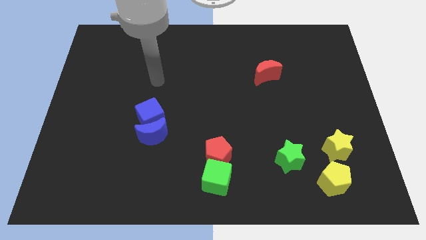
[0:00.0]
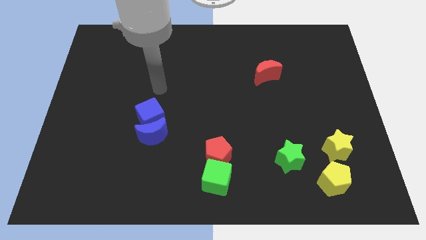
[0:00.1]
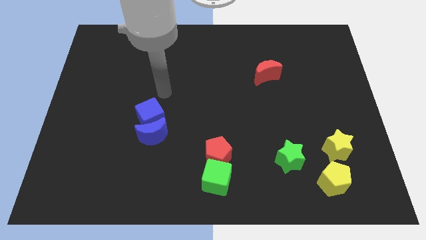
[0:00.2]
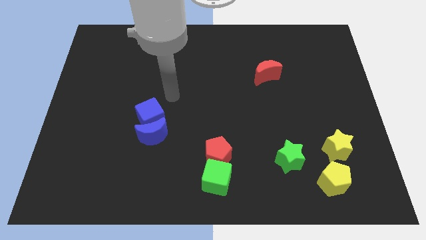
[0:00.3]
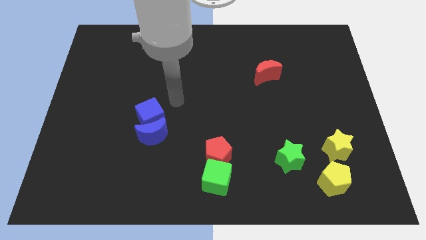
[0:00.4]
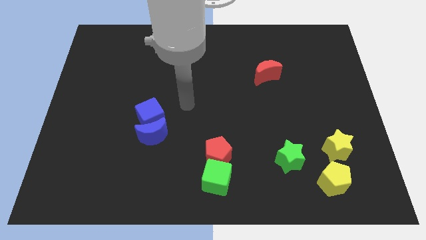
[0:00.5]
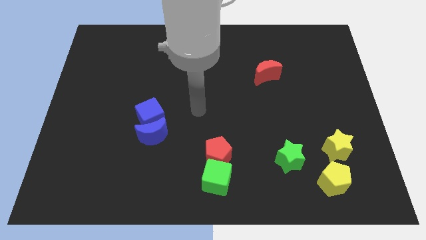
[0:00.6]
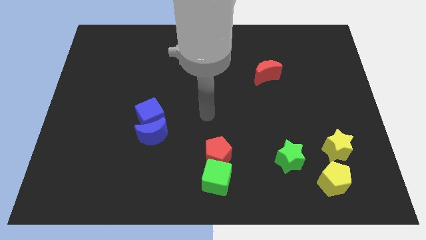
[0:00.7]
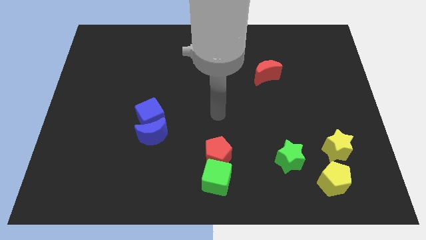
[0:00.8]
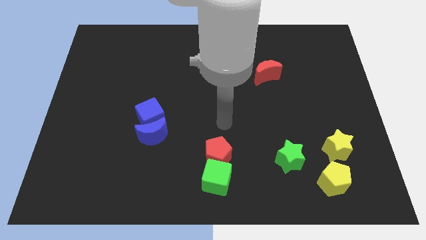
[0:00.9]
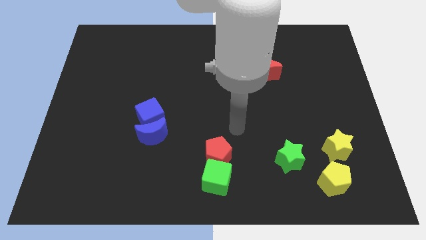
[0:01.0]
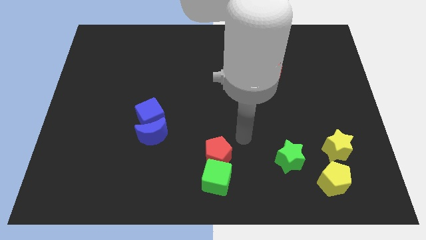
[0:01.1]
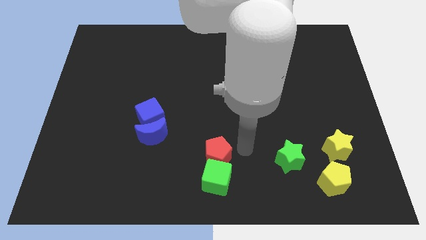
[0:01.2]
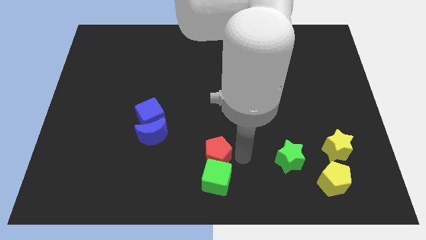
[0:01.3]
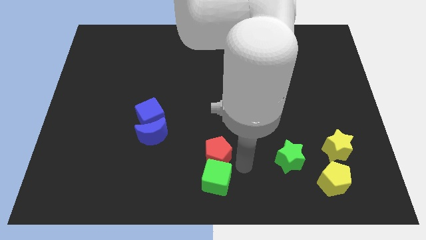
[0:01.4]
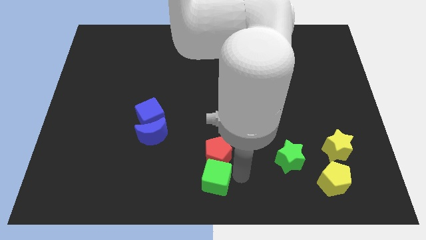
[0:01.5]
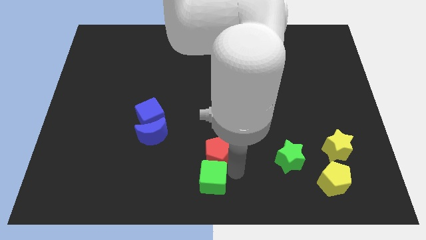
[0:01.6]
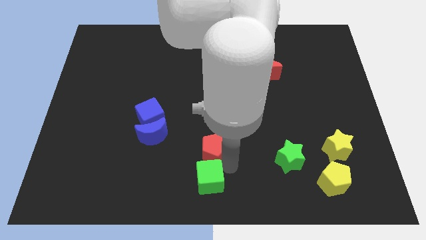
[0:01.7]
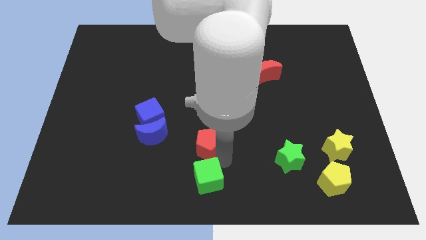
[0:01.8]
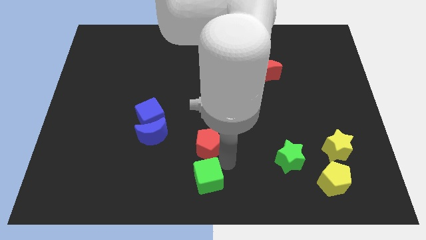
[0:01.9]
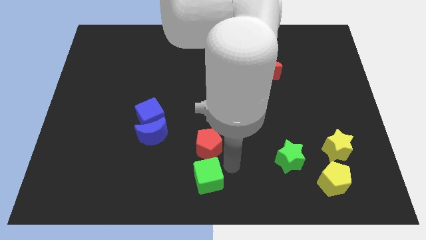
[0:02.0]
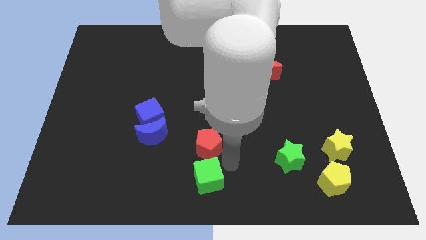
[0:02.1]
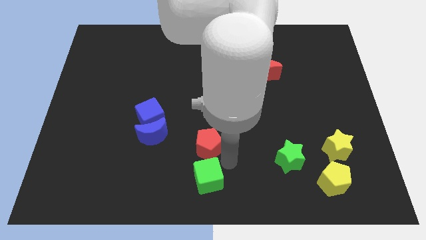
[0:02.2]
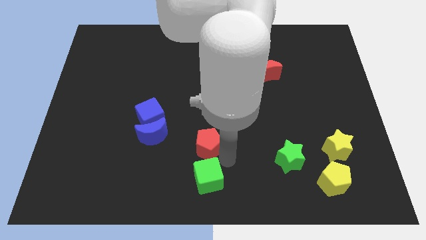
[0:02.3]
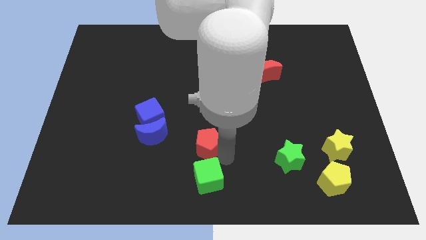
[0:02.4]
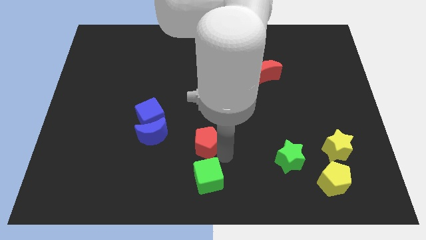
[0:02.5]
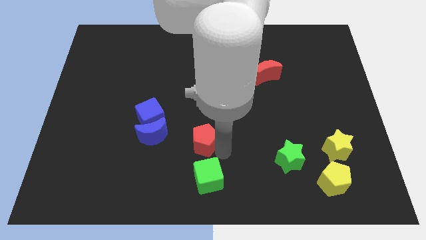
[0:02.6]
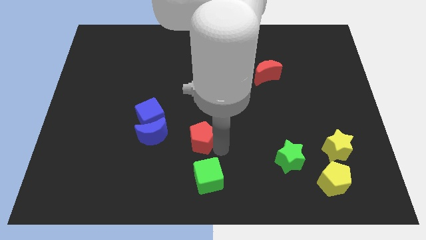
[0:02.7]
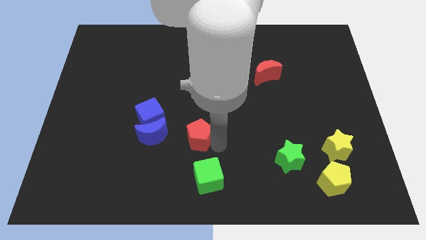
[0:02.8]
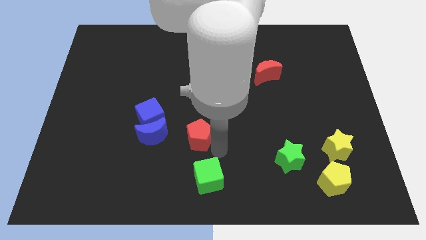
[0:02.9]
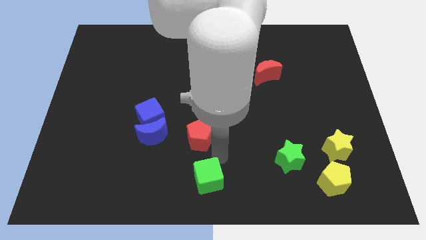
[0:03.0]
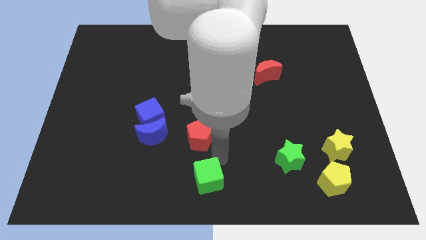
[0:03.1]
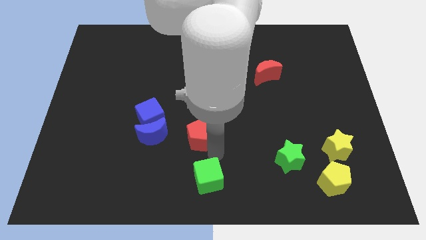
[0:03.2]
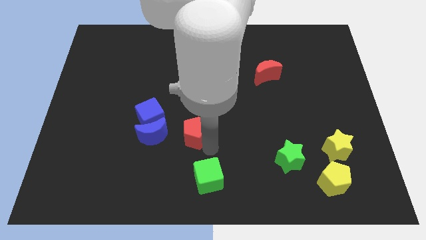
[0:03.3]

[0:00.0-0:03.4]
slightly push the red pentagon up and then to the left

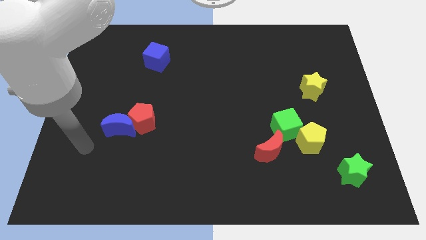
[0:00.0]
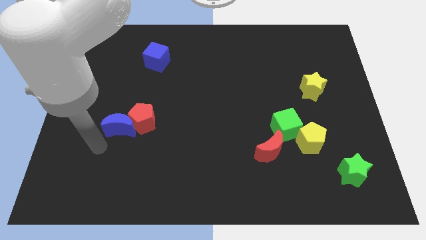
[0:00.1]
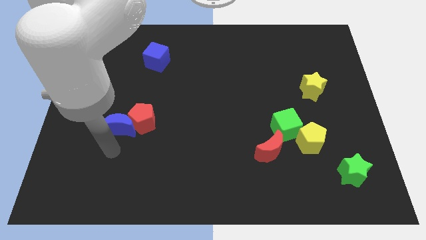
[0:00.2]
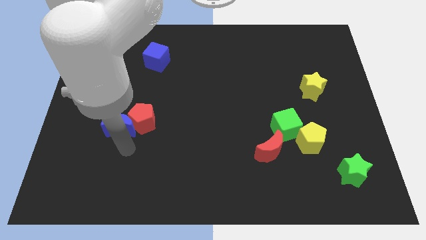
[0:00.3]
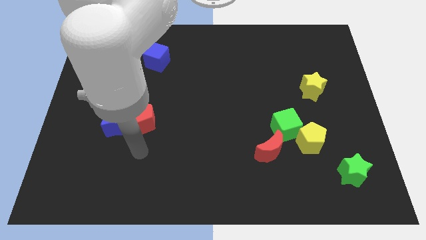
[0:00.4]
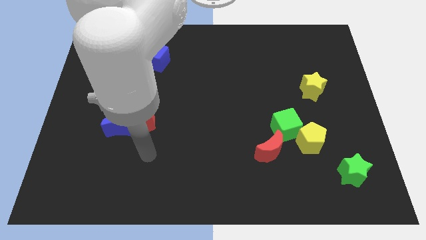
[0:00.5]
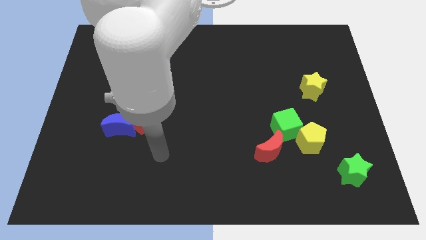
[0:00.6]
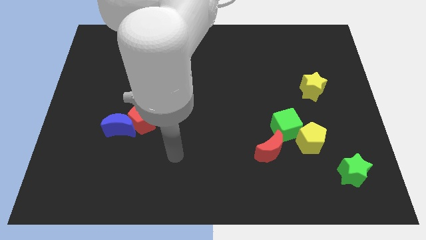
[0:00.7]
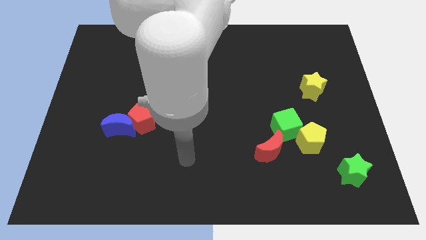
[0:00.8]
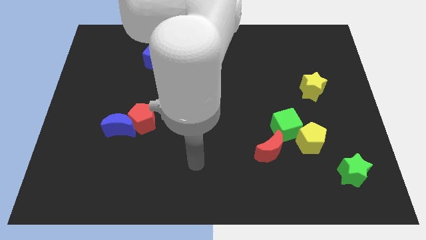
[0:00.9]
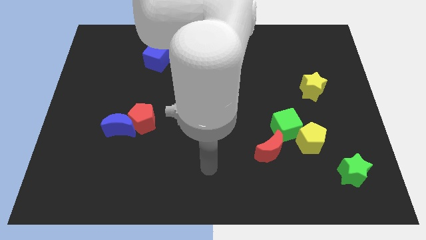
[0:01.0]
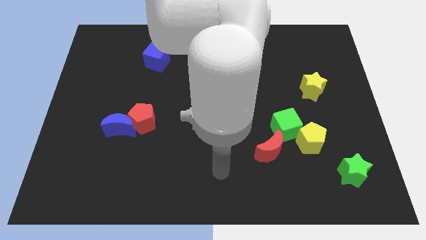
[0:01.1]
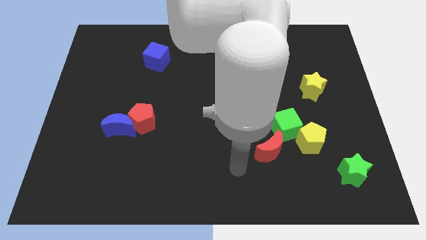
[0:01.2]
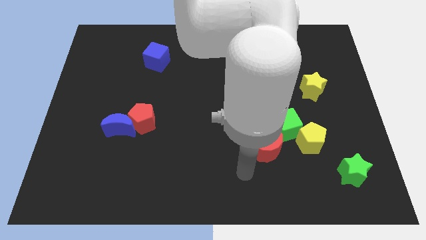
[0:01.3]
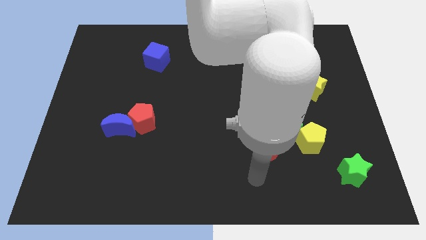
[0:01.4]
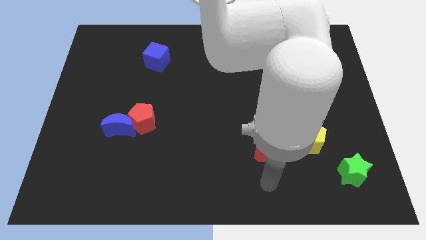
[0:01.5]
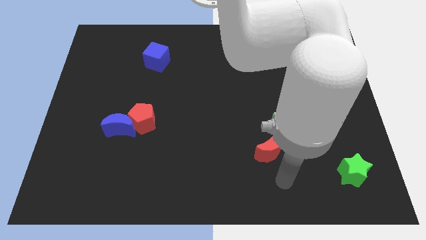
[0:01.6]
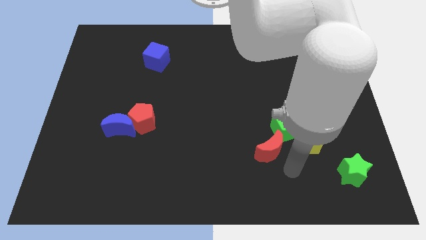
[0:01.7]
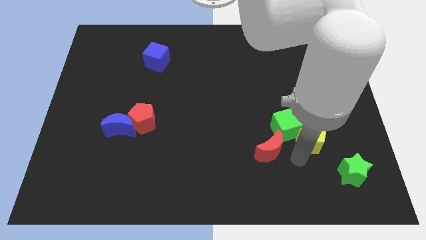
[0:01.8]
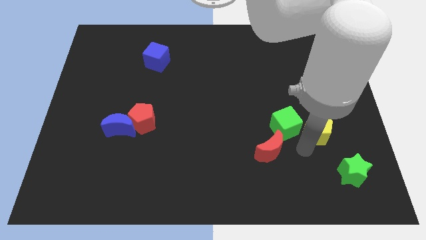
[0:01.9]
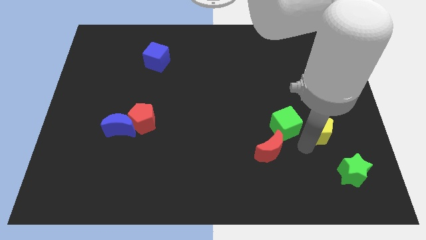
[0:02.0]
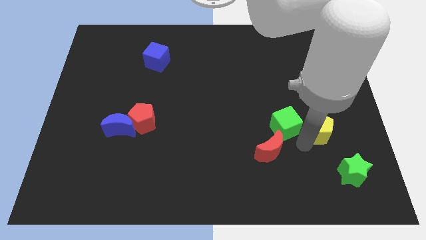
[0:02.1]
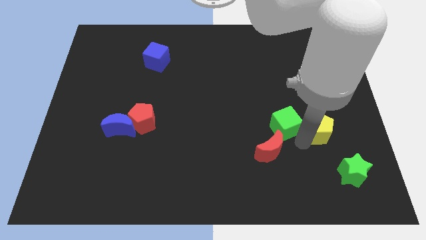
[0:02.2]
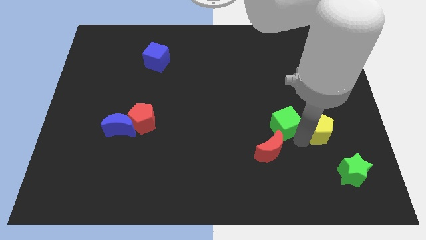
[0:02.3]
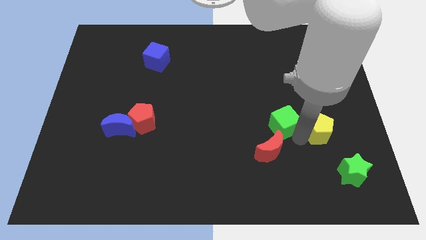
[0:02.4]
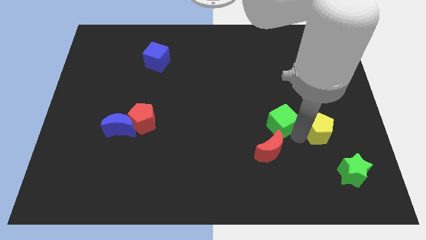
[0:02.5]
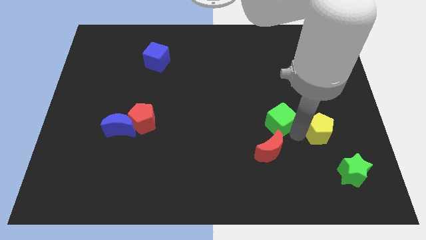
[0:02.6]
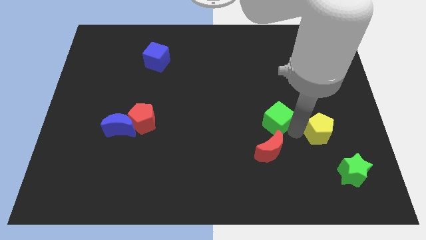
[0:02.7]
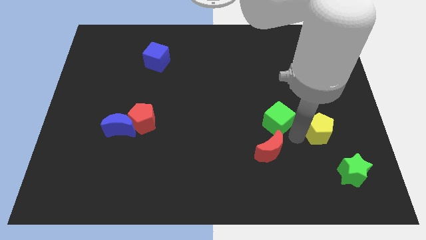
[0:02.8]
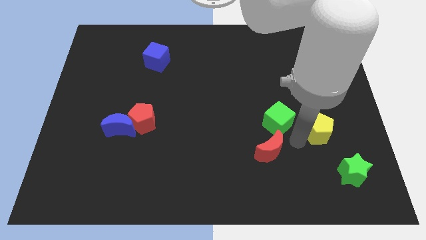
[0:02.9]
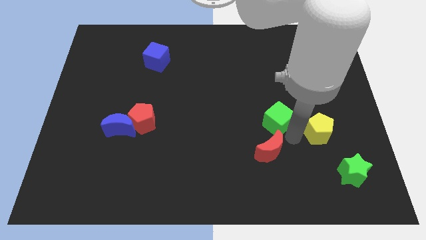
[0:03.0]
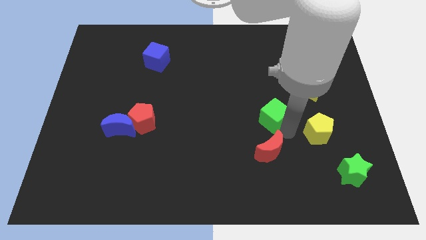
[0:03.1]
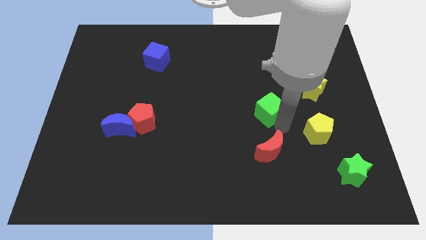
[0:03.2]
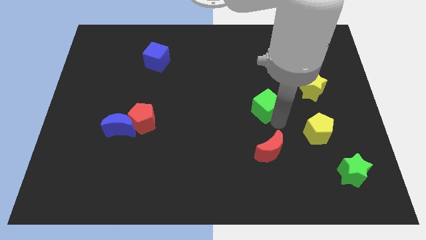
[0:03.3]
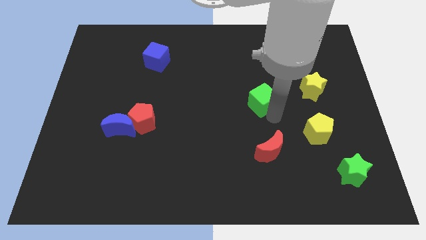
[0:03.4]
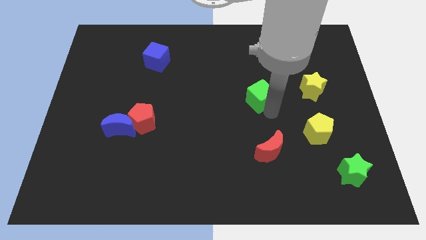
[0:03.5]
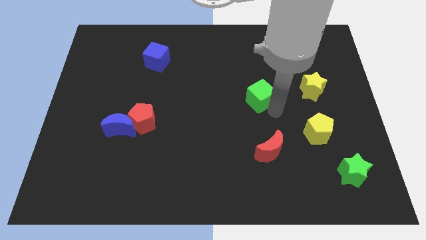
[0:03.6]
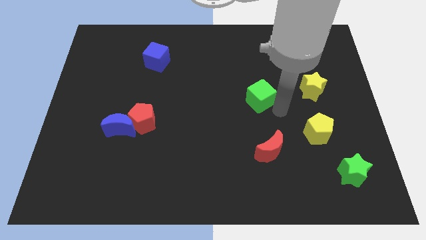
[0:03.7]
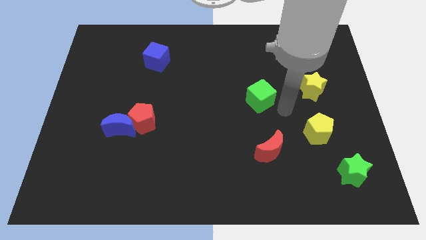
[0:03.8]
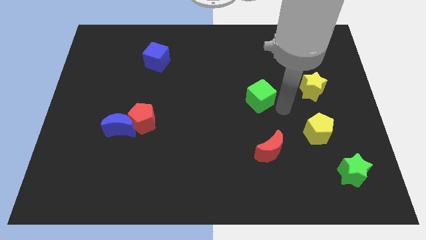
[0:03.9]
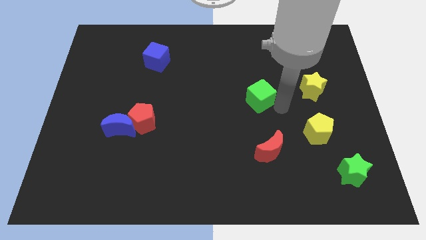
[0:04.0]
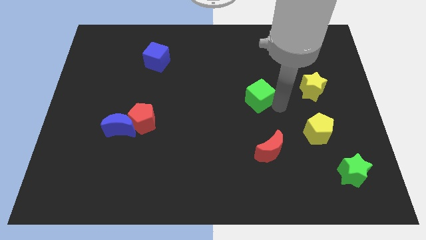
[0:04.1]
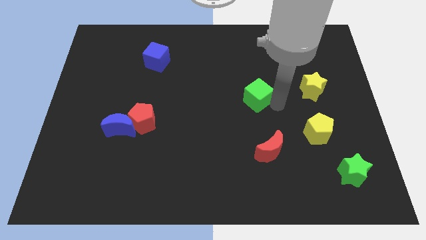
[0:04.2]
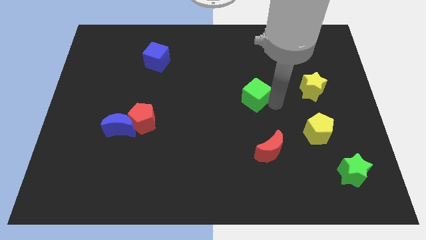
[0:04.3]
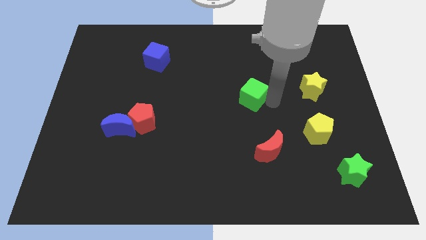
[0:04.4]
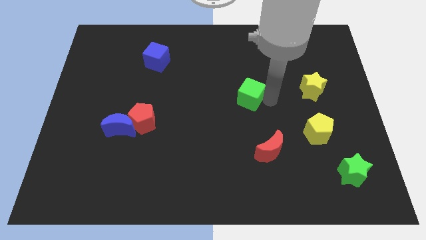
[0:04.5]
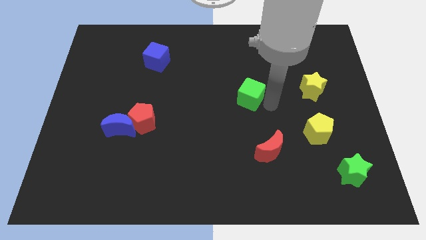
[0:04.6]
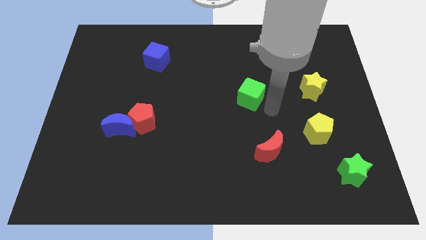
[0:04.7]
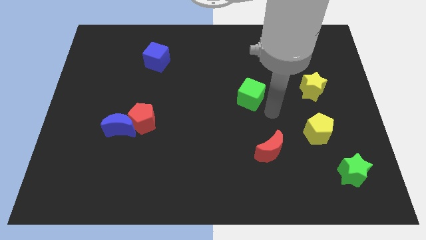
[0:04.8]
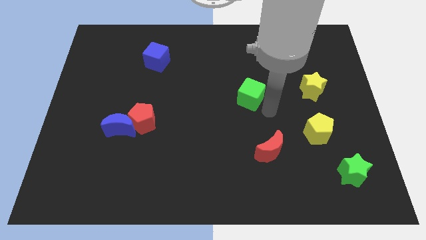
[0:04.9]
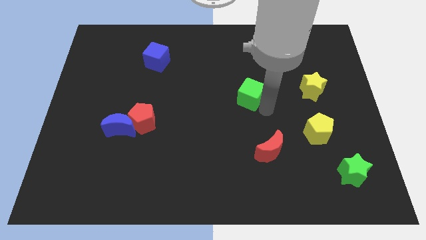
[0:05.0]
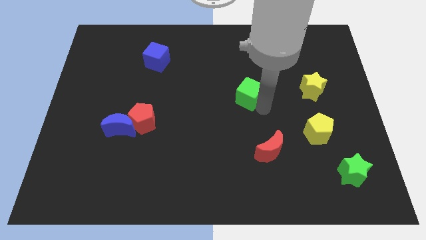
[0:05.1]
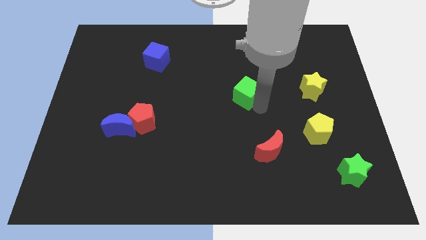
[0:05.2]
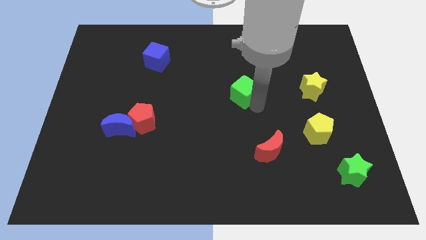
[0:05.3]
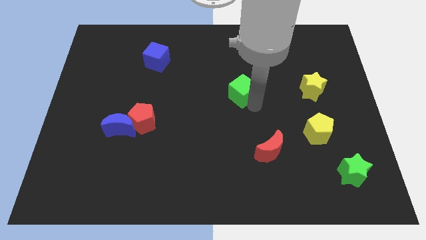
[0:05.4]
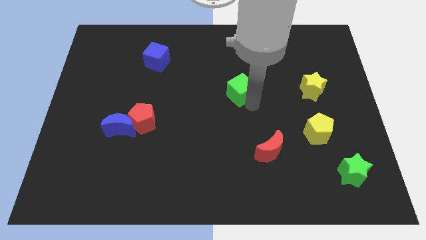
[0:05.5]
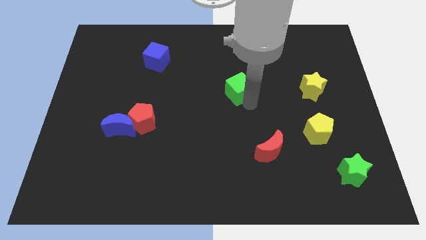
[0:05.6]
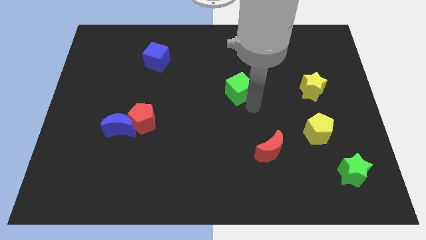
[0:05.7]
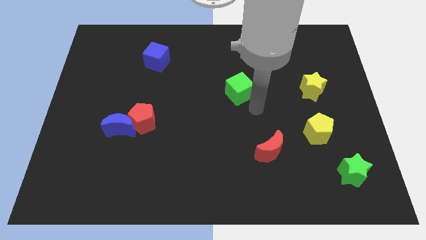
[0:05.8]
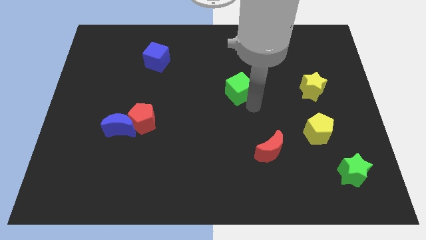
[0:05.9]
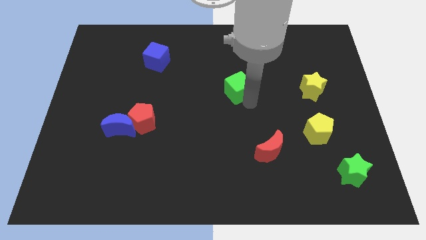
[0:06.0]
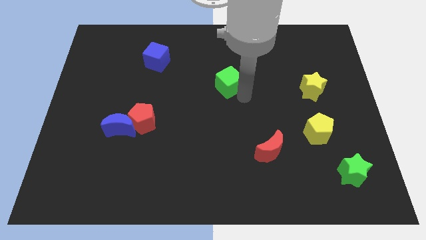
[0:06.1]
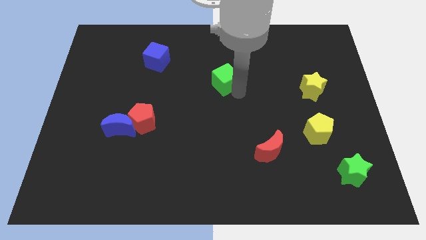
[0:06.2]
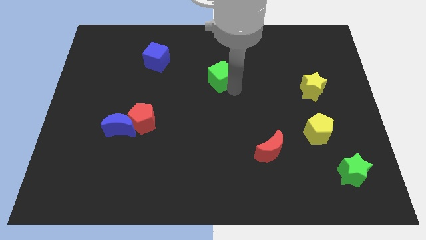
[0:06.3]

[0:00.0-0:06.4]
slide the green cube diagonally up and to the left
